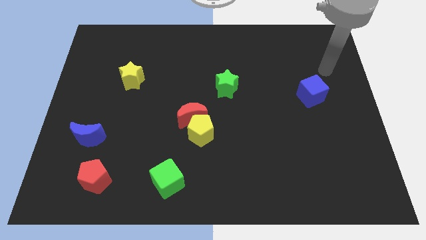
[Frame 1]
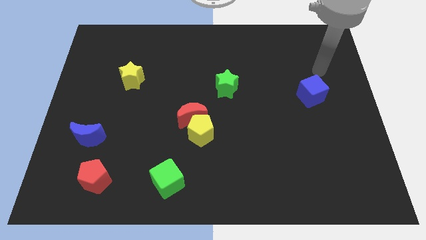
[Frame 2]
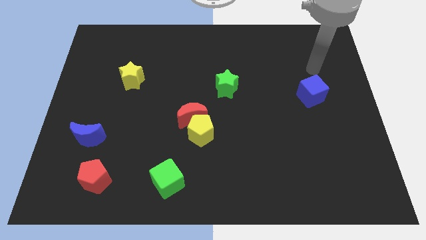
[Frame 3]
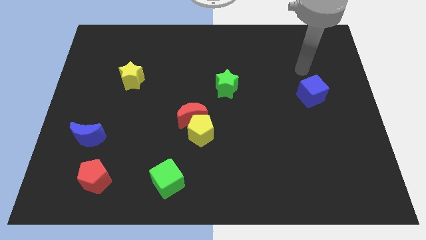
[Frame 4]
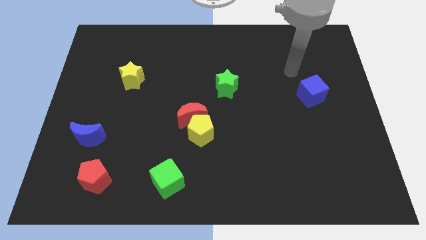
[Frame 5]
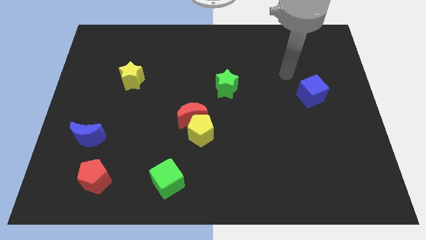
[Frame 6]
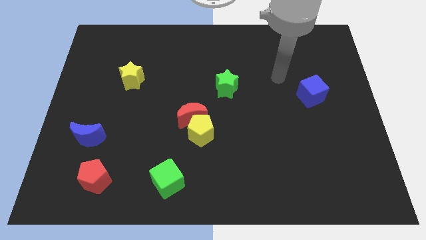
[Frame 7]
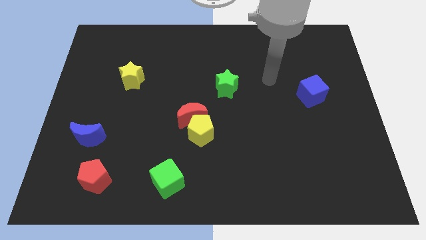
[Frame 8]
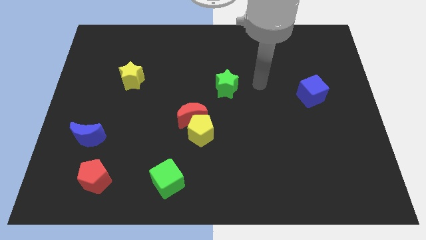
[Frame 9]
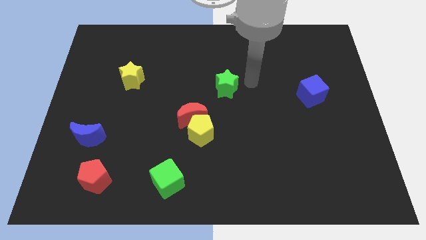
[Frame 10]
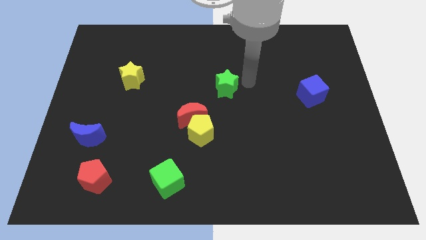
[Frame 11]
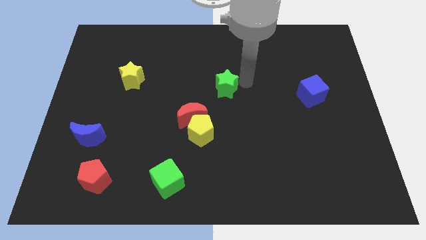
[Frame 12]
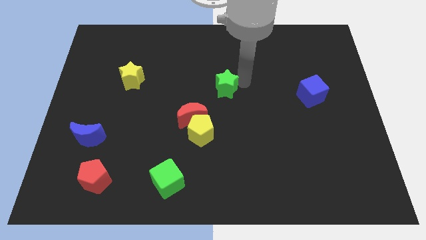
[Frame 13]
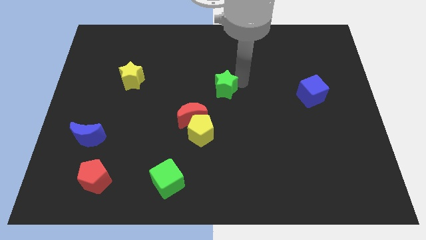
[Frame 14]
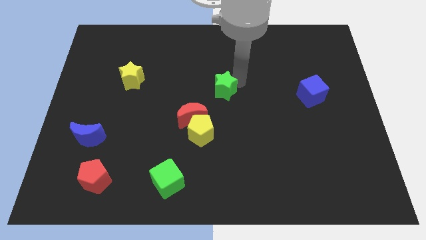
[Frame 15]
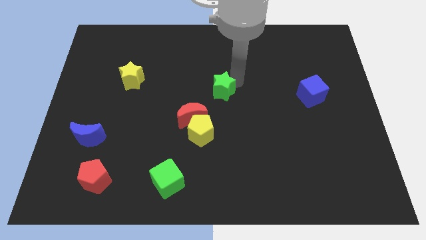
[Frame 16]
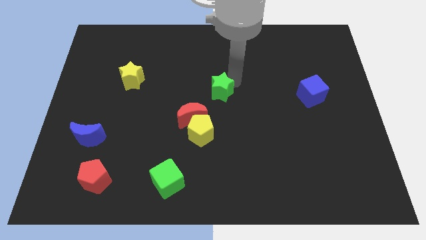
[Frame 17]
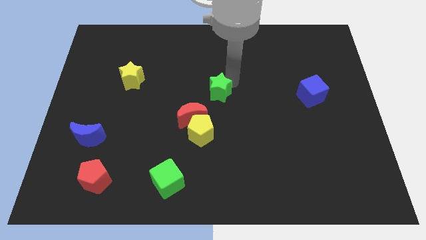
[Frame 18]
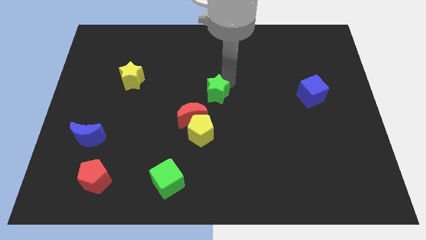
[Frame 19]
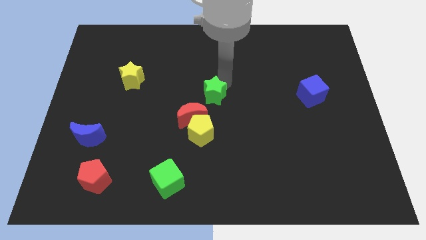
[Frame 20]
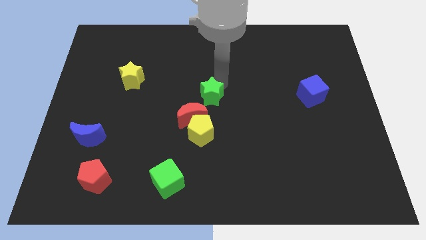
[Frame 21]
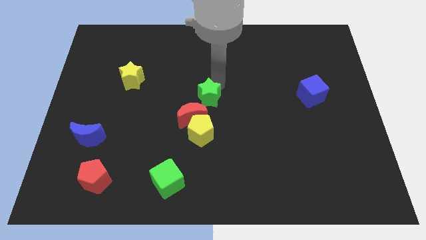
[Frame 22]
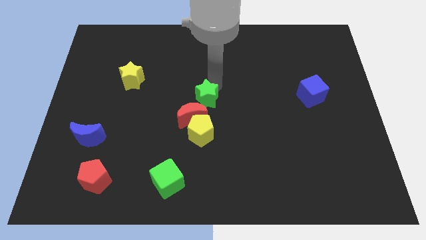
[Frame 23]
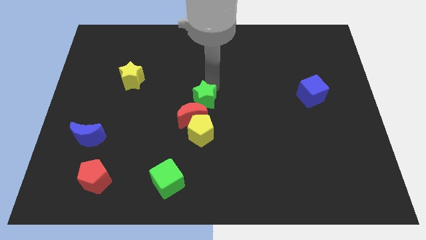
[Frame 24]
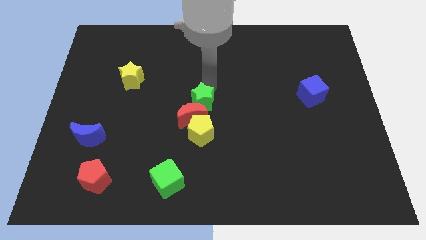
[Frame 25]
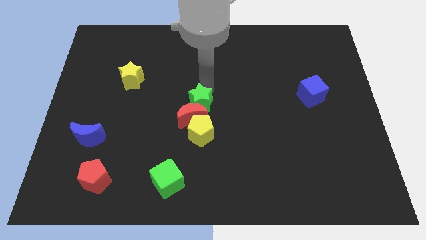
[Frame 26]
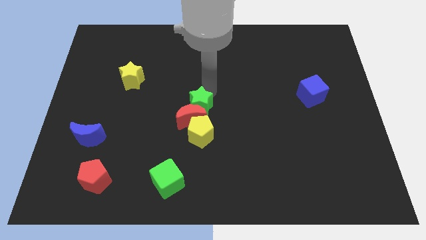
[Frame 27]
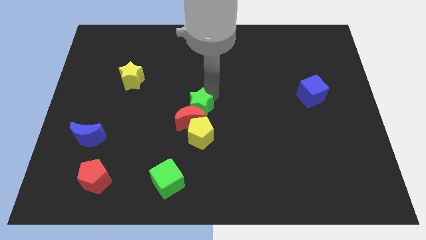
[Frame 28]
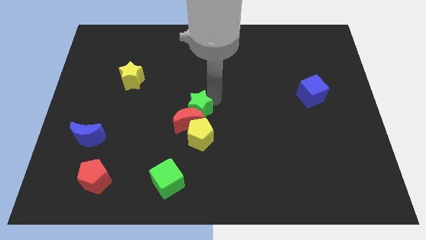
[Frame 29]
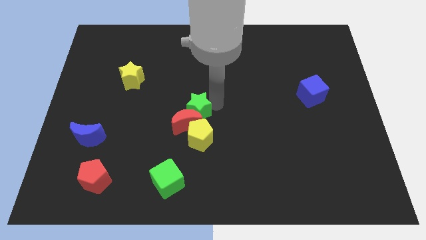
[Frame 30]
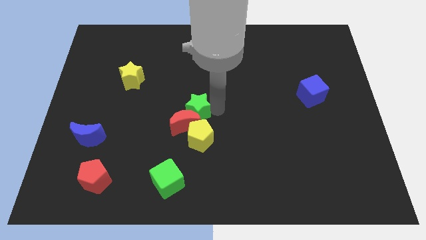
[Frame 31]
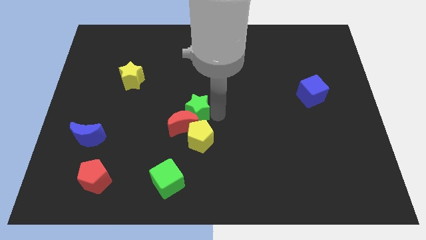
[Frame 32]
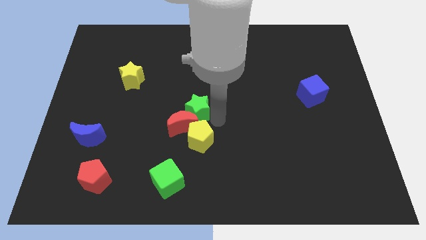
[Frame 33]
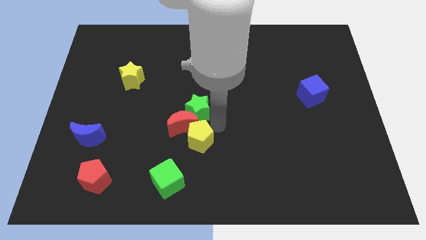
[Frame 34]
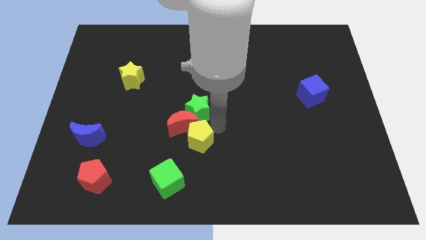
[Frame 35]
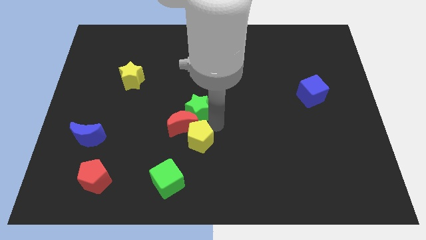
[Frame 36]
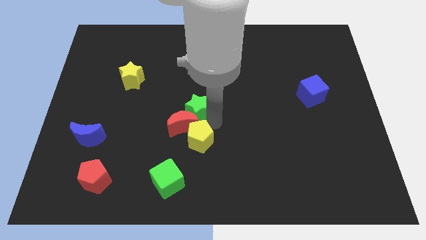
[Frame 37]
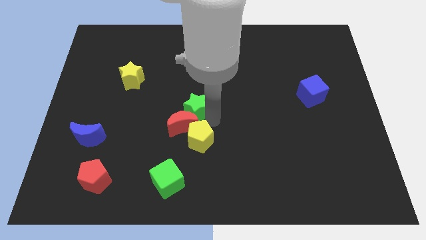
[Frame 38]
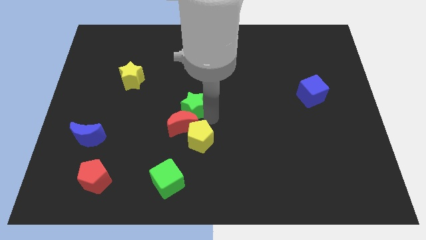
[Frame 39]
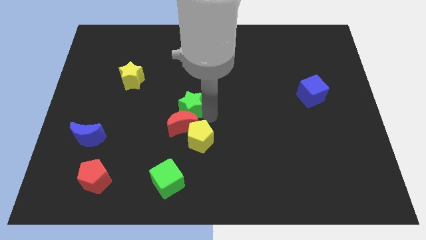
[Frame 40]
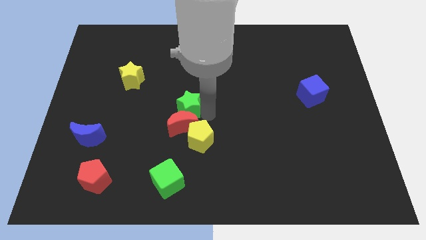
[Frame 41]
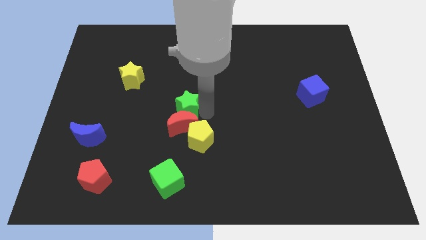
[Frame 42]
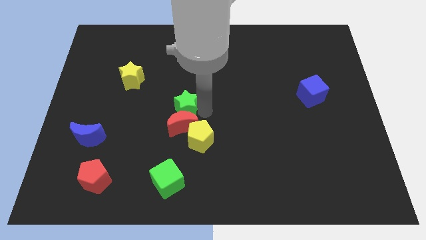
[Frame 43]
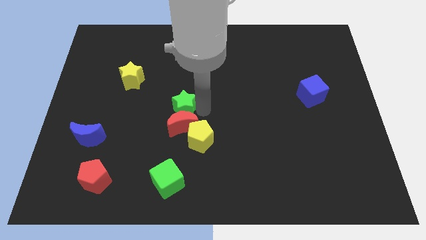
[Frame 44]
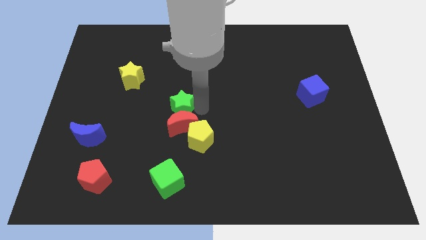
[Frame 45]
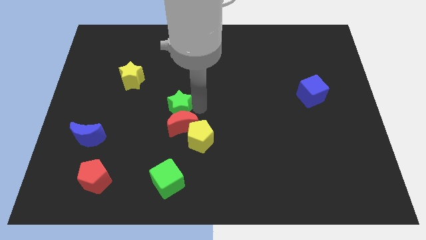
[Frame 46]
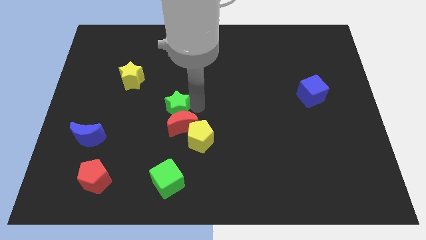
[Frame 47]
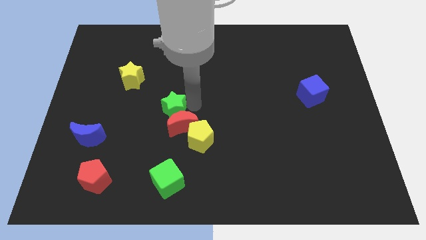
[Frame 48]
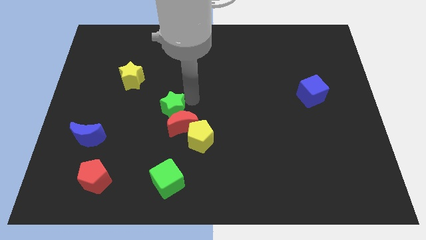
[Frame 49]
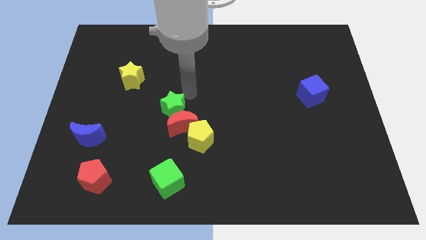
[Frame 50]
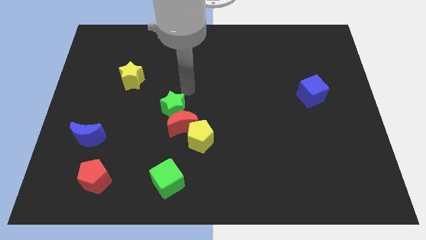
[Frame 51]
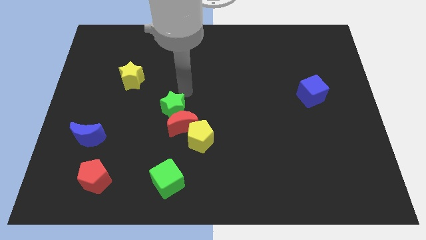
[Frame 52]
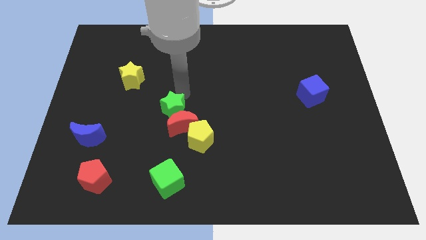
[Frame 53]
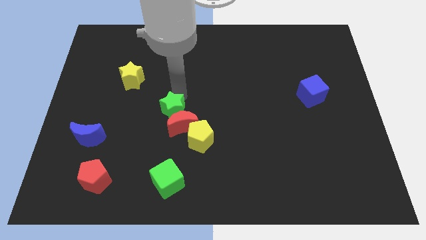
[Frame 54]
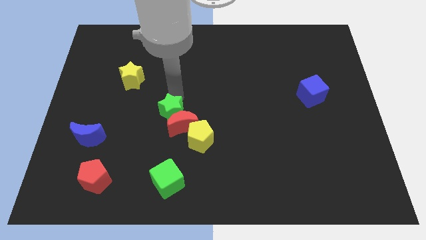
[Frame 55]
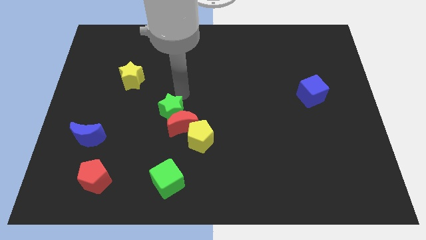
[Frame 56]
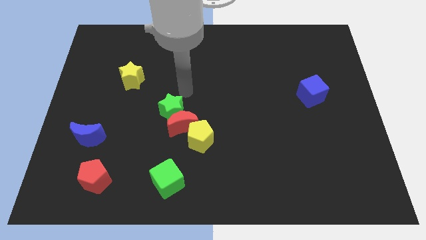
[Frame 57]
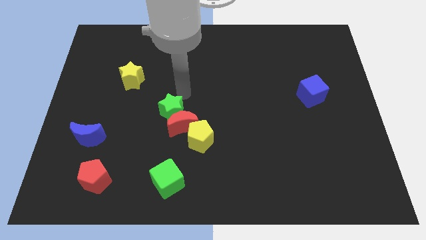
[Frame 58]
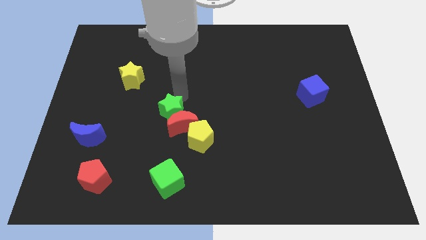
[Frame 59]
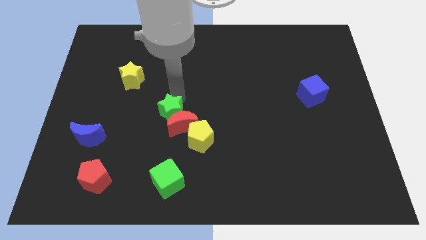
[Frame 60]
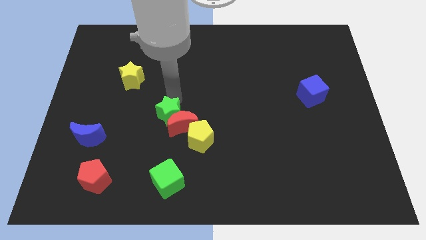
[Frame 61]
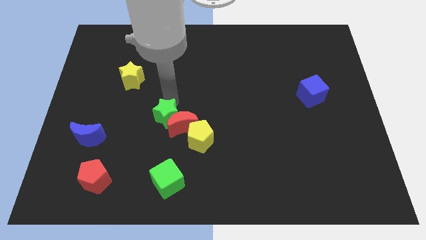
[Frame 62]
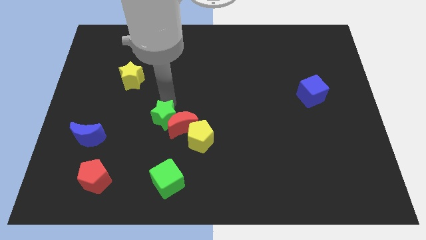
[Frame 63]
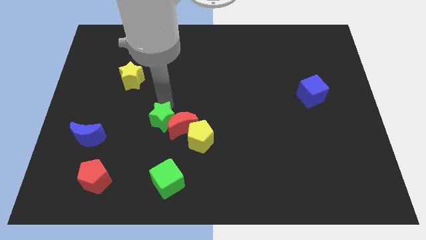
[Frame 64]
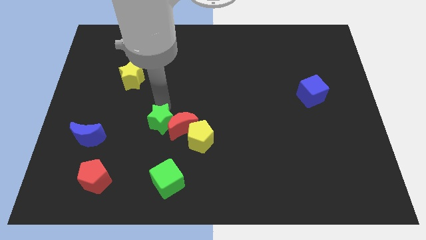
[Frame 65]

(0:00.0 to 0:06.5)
put the green star to the left of the yellow pentagon
